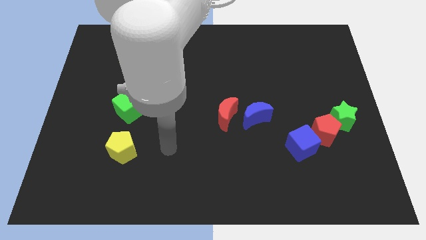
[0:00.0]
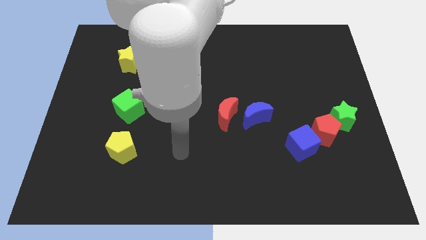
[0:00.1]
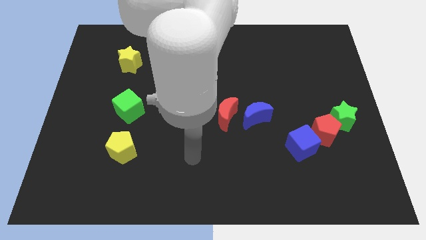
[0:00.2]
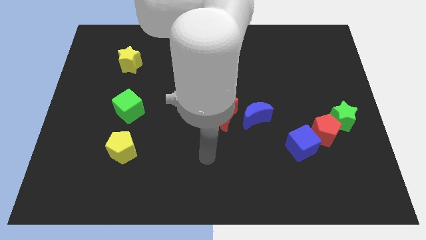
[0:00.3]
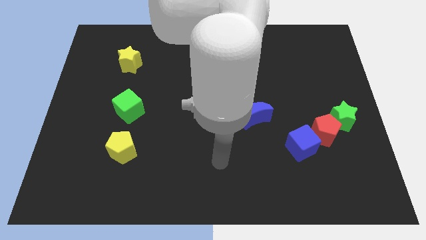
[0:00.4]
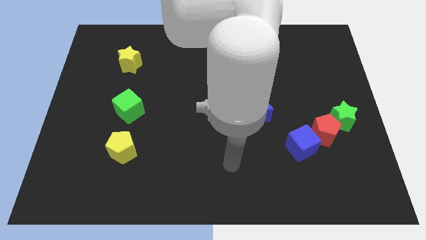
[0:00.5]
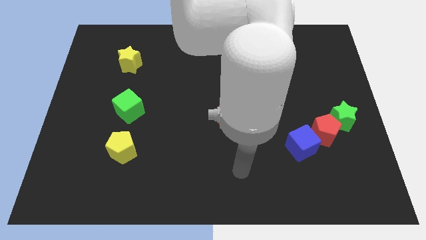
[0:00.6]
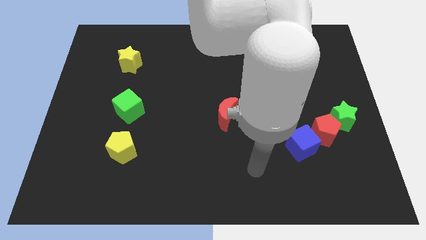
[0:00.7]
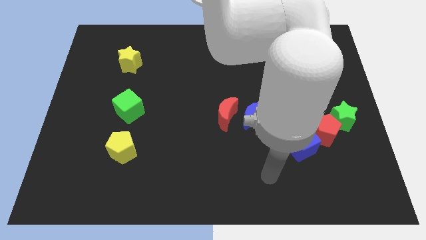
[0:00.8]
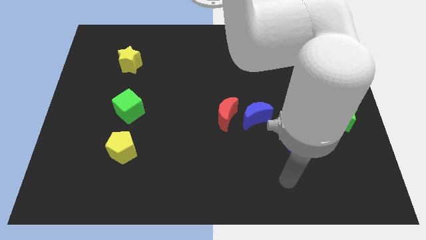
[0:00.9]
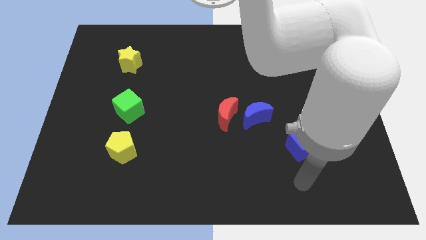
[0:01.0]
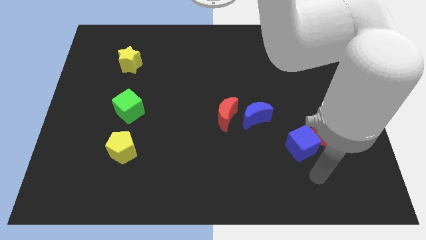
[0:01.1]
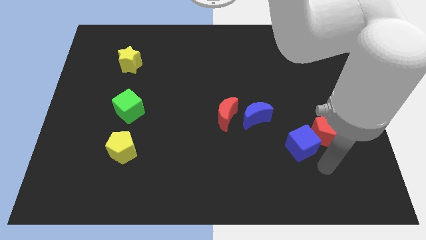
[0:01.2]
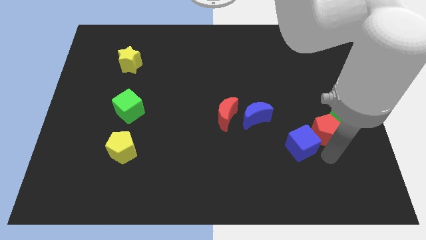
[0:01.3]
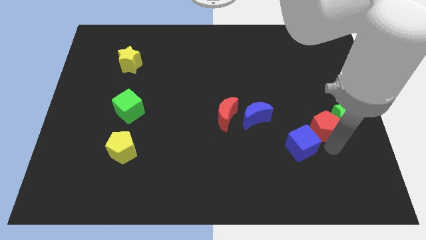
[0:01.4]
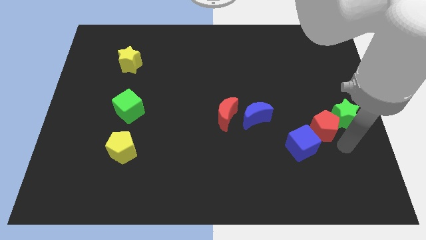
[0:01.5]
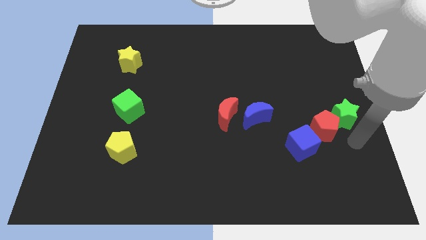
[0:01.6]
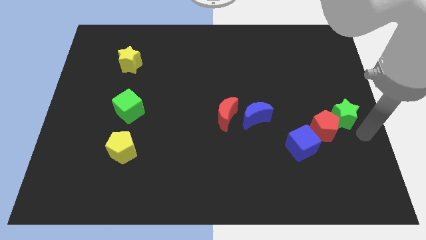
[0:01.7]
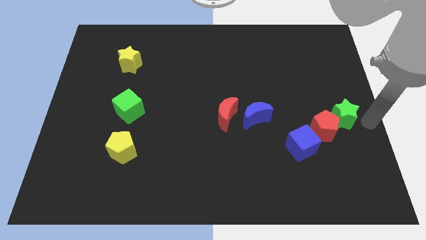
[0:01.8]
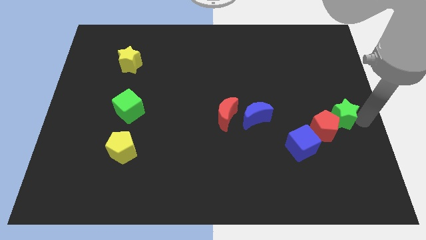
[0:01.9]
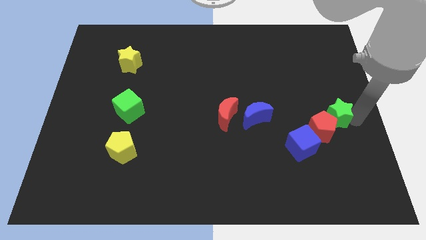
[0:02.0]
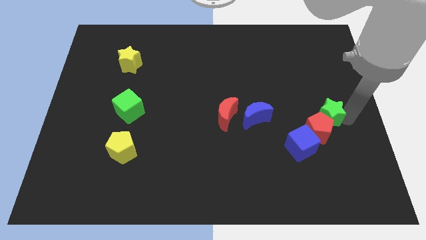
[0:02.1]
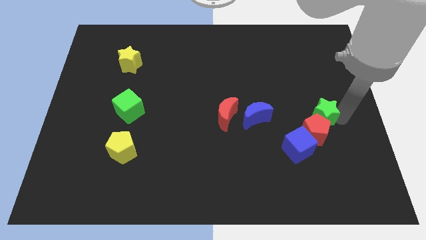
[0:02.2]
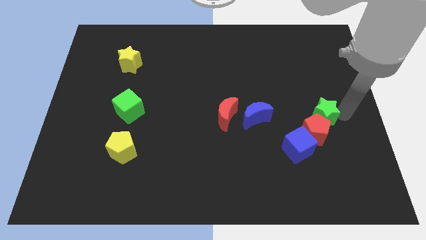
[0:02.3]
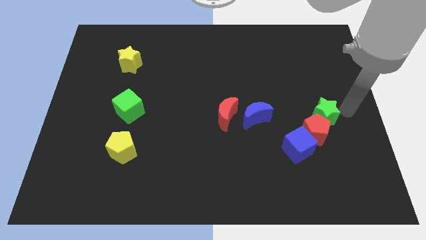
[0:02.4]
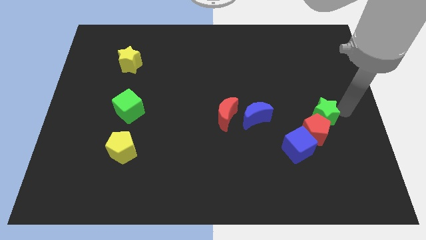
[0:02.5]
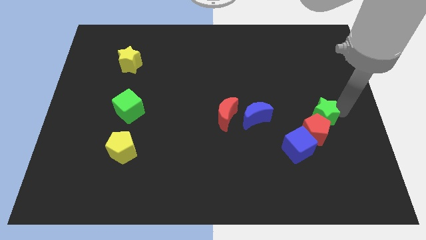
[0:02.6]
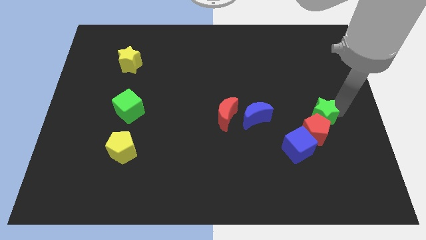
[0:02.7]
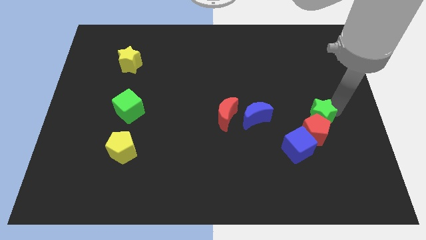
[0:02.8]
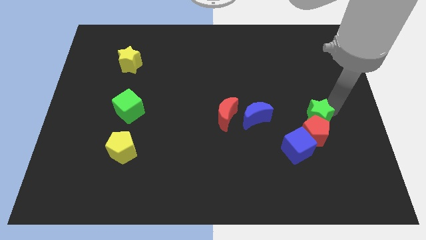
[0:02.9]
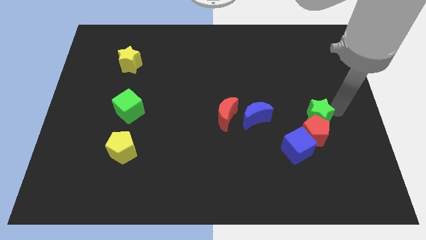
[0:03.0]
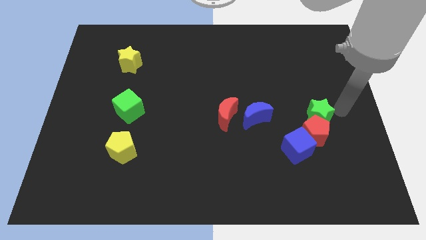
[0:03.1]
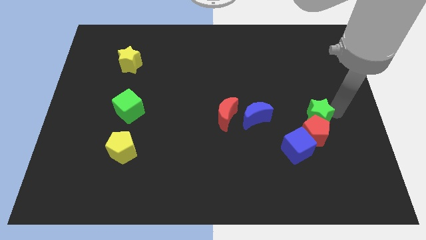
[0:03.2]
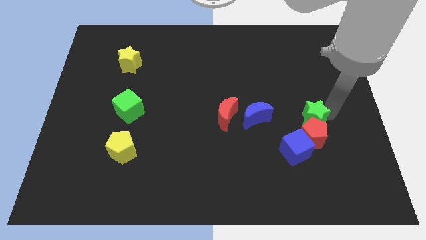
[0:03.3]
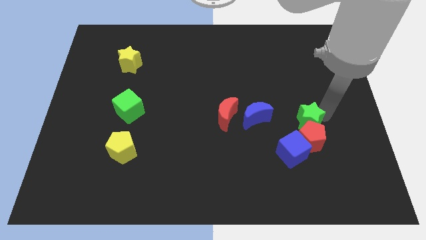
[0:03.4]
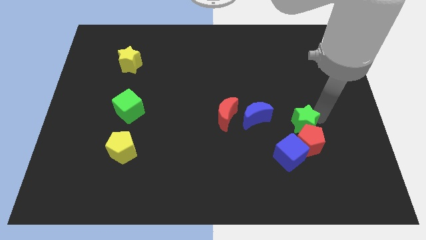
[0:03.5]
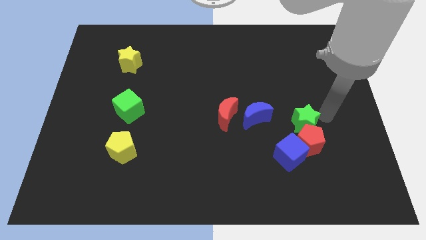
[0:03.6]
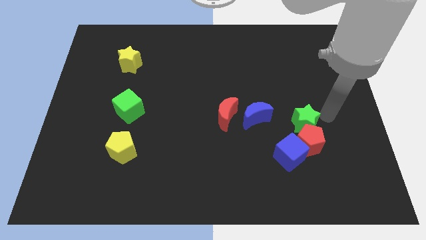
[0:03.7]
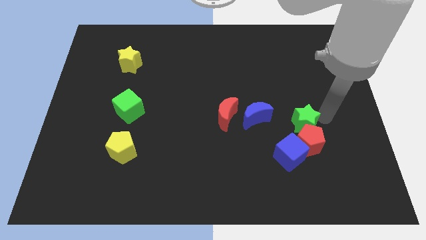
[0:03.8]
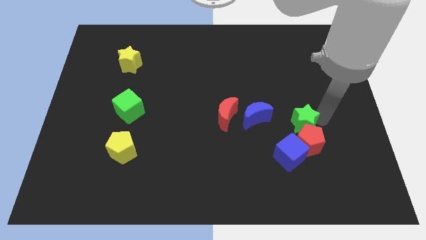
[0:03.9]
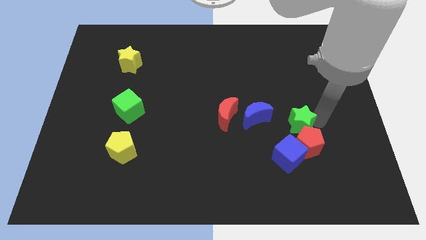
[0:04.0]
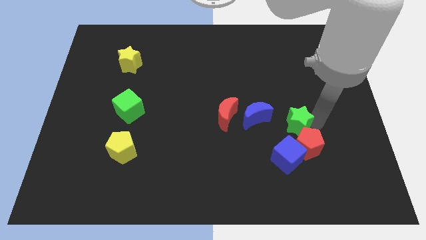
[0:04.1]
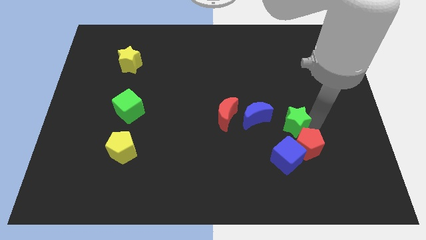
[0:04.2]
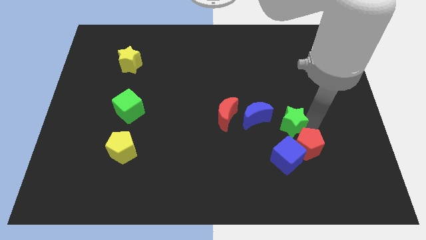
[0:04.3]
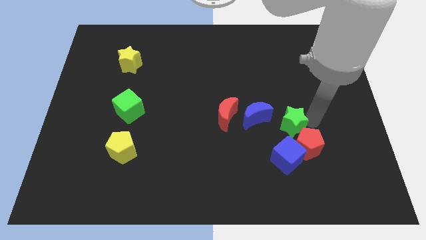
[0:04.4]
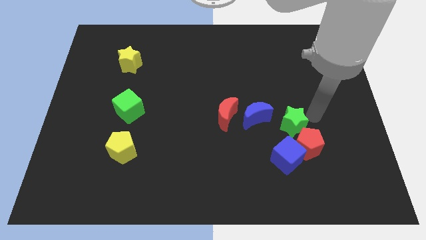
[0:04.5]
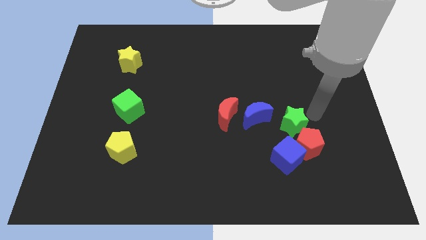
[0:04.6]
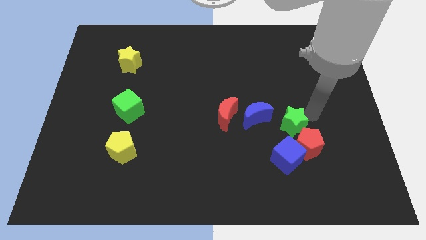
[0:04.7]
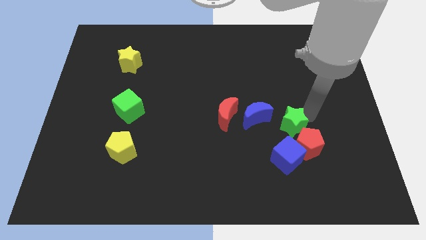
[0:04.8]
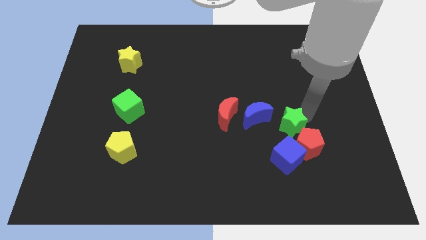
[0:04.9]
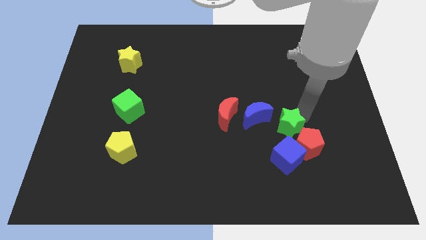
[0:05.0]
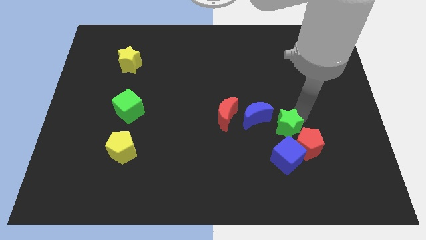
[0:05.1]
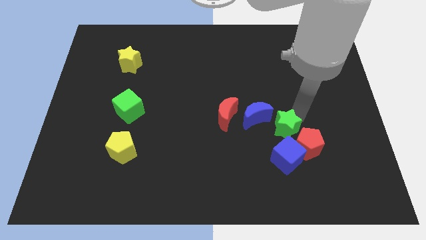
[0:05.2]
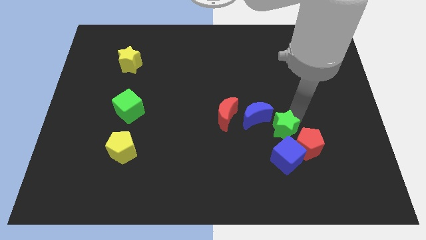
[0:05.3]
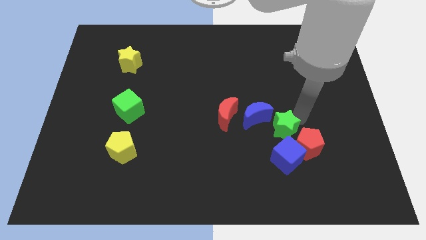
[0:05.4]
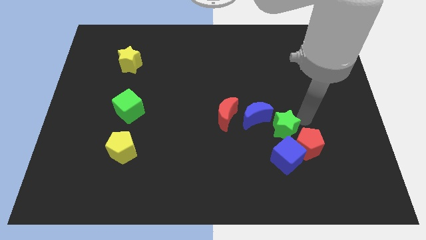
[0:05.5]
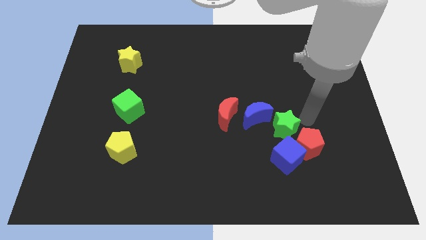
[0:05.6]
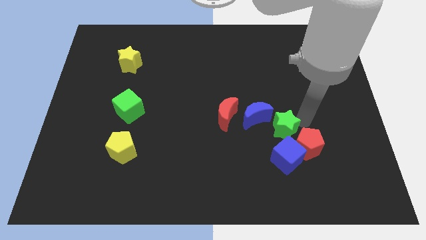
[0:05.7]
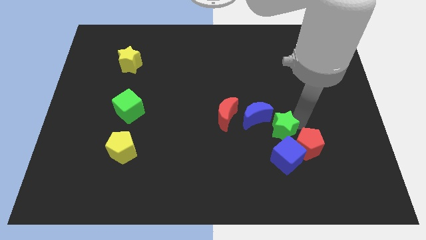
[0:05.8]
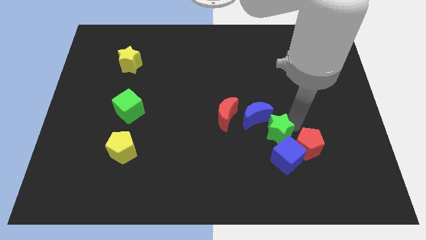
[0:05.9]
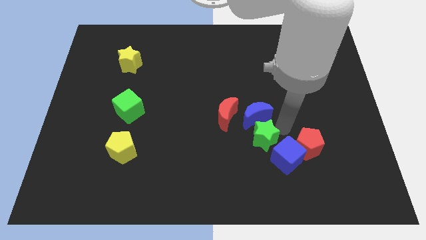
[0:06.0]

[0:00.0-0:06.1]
move the green star just left of the blue cube
